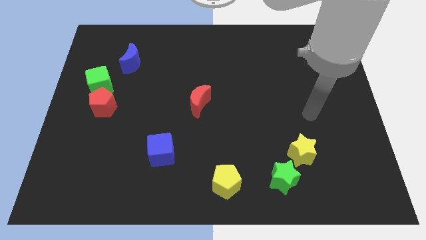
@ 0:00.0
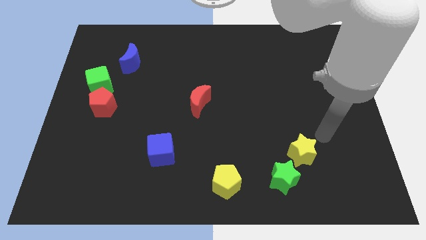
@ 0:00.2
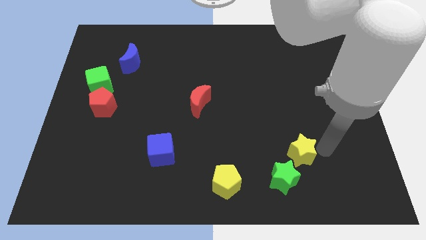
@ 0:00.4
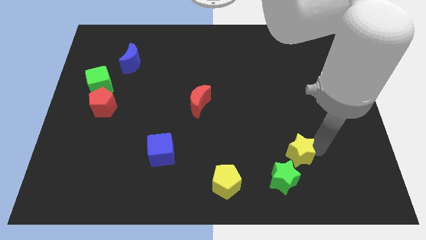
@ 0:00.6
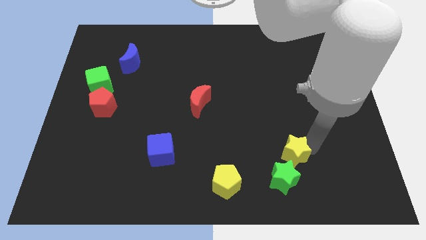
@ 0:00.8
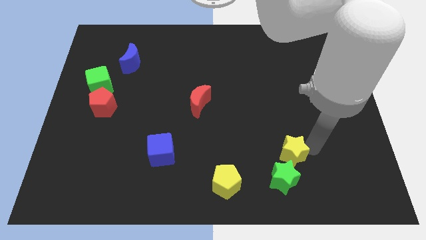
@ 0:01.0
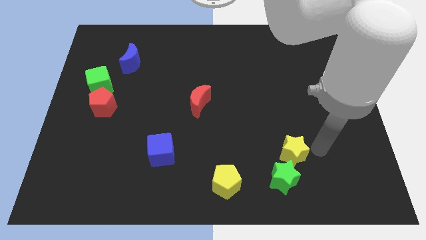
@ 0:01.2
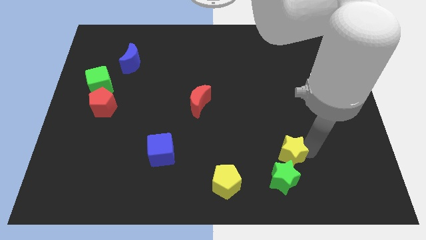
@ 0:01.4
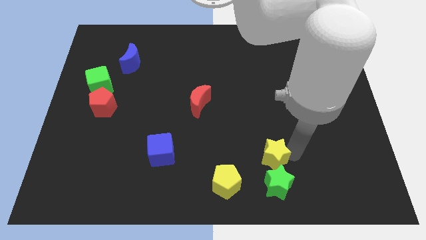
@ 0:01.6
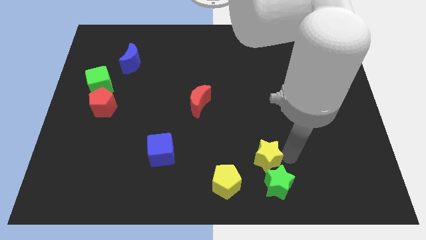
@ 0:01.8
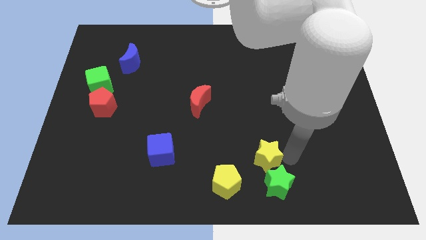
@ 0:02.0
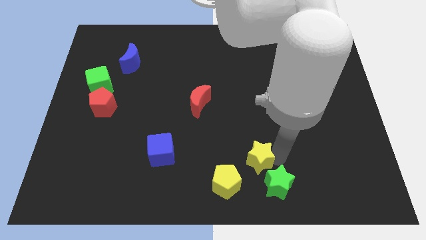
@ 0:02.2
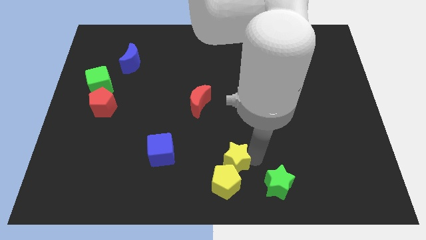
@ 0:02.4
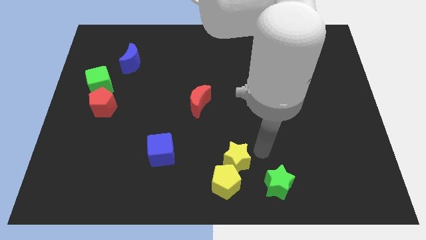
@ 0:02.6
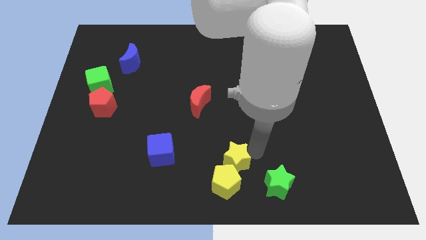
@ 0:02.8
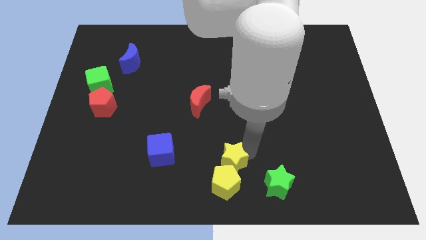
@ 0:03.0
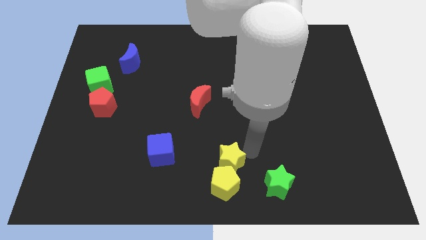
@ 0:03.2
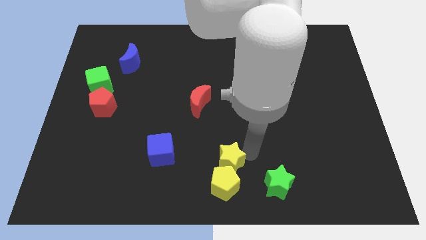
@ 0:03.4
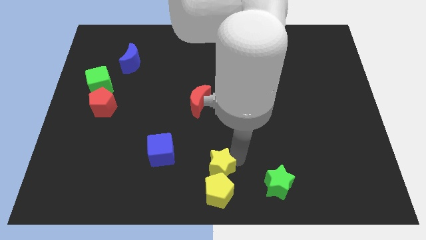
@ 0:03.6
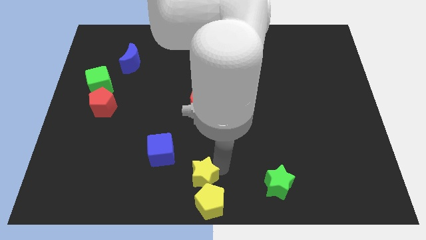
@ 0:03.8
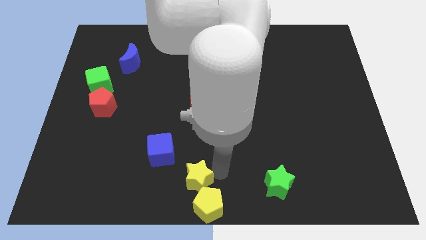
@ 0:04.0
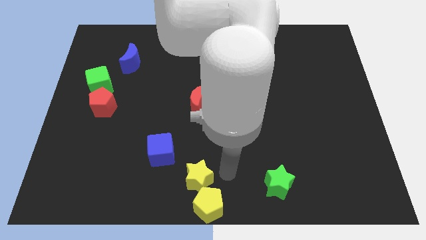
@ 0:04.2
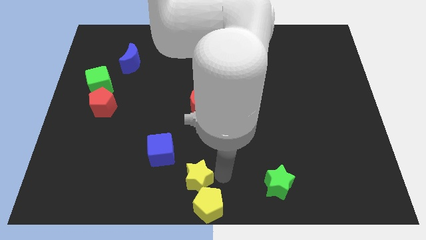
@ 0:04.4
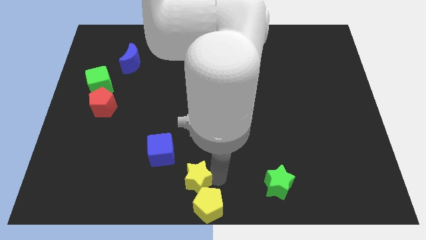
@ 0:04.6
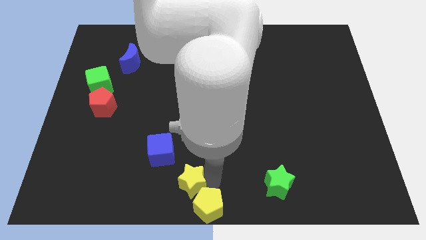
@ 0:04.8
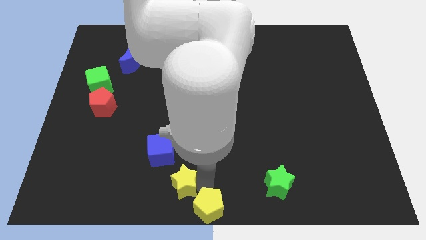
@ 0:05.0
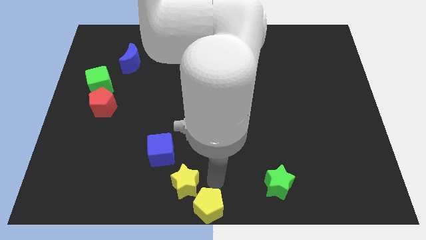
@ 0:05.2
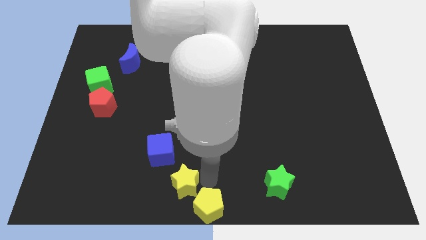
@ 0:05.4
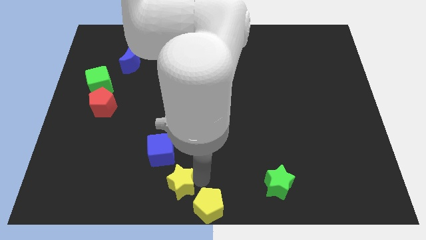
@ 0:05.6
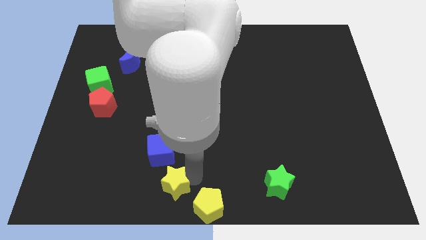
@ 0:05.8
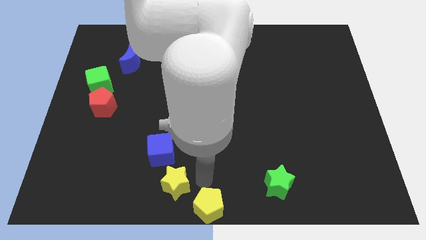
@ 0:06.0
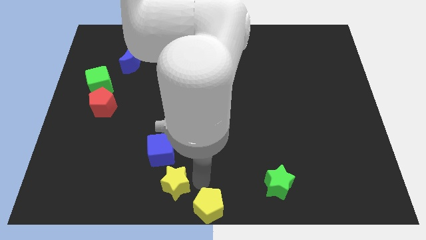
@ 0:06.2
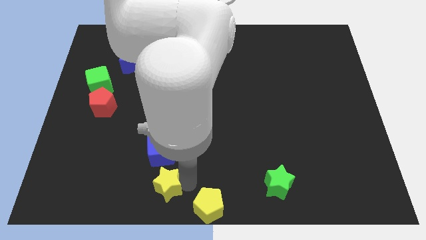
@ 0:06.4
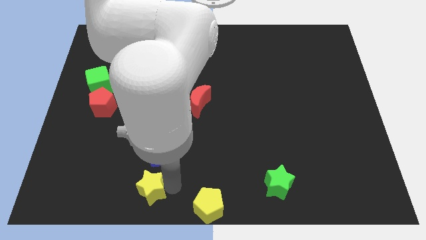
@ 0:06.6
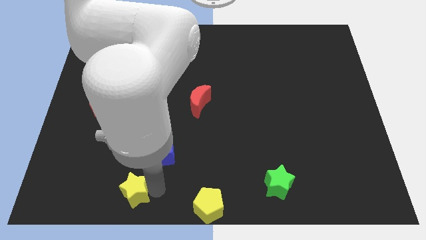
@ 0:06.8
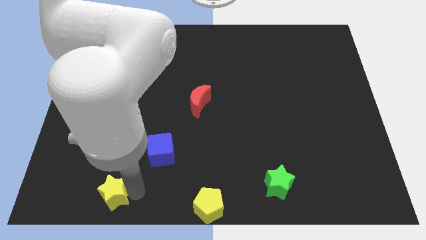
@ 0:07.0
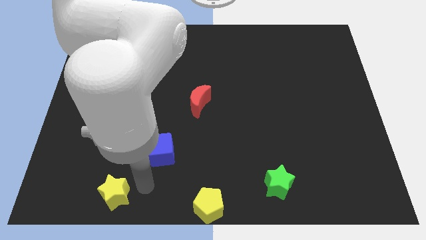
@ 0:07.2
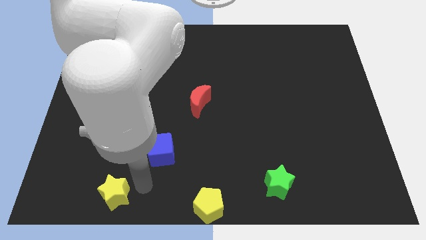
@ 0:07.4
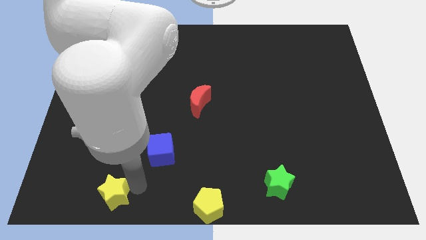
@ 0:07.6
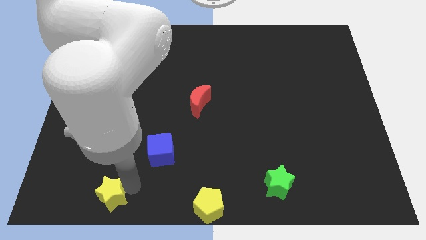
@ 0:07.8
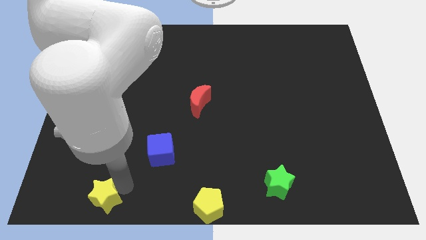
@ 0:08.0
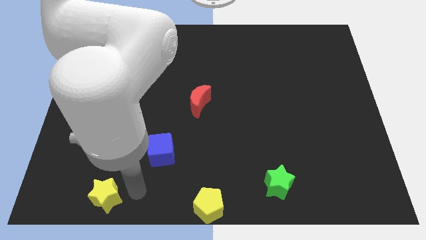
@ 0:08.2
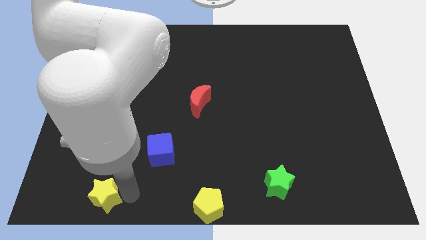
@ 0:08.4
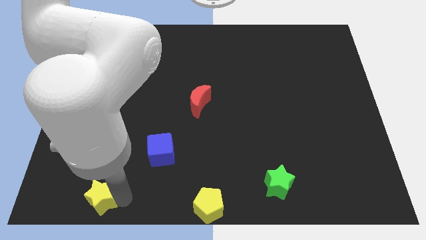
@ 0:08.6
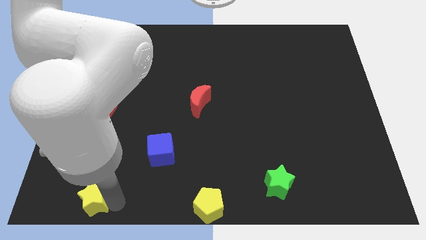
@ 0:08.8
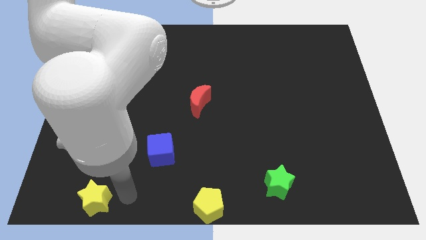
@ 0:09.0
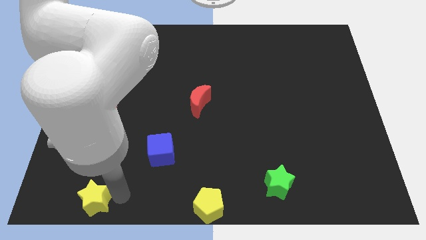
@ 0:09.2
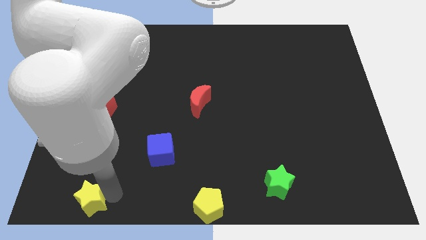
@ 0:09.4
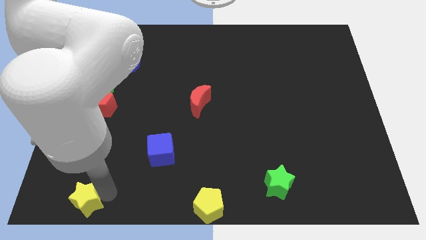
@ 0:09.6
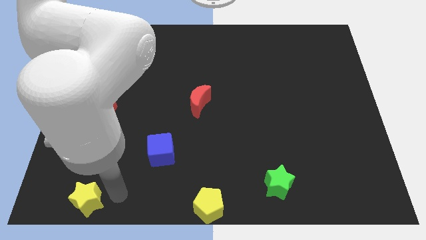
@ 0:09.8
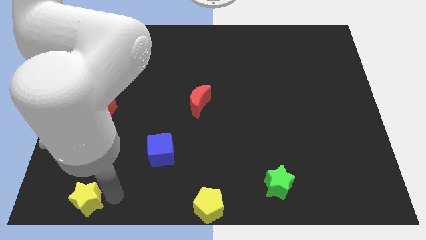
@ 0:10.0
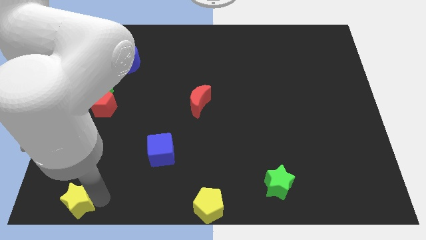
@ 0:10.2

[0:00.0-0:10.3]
slide the yellow star to the lower left corner

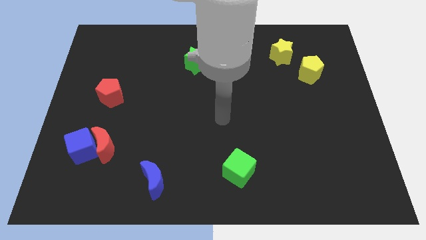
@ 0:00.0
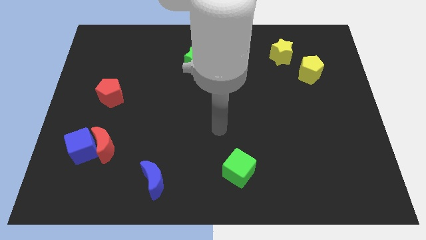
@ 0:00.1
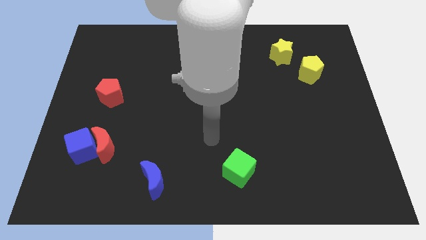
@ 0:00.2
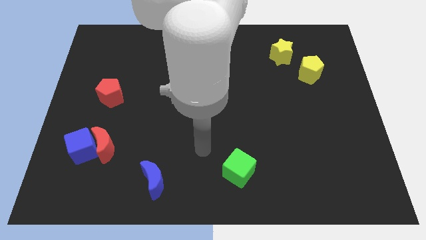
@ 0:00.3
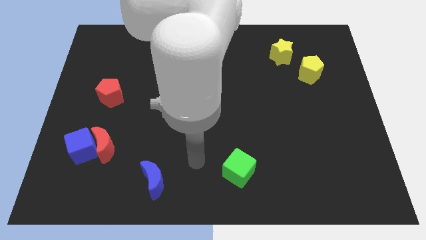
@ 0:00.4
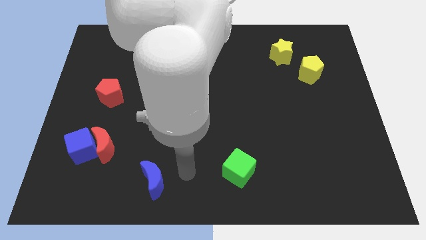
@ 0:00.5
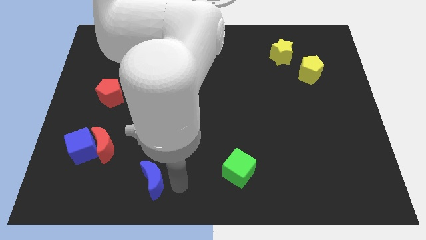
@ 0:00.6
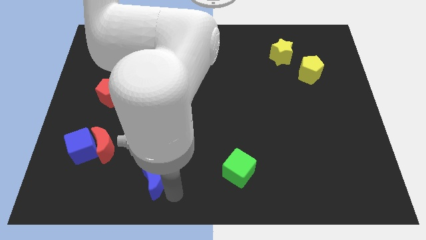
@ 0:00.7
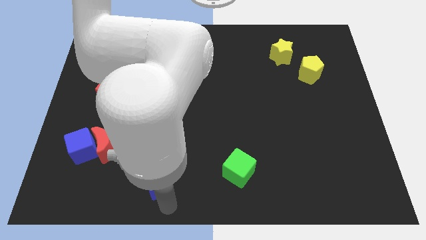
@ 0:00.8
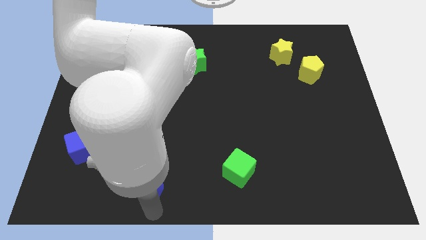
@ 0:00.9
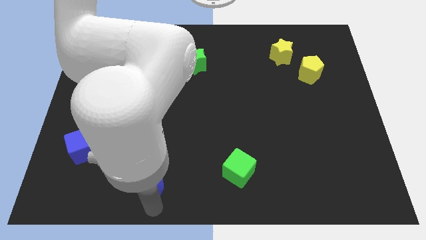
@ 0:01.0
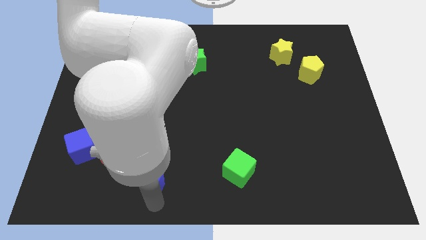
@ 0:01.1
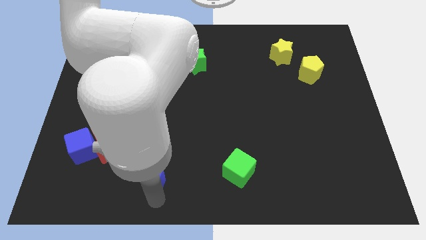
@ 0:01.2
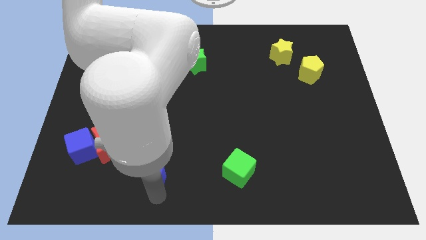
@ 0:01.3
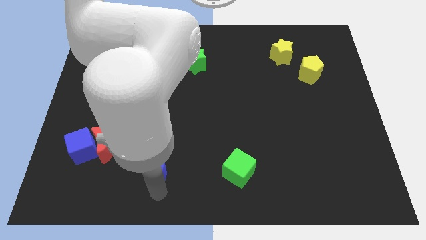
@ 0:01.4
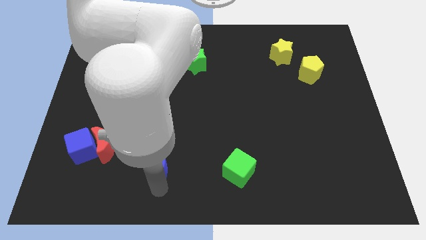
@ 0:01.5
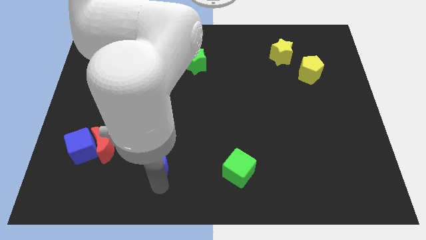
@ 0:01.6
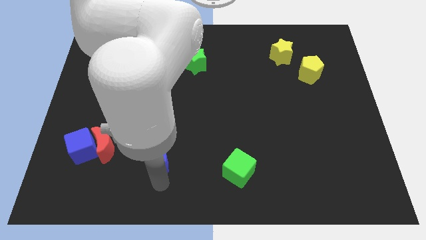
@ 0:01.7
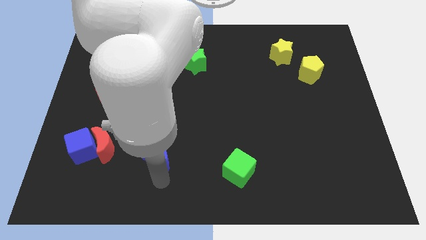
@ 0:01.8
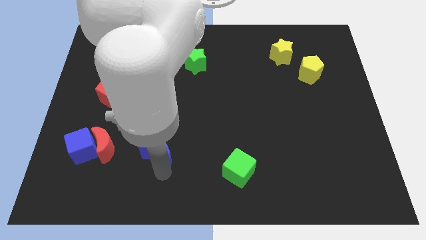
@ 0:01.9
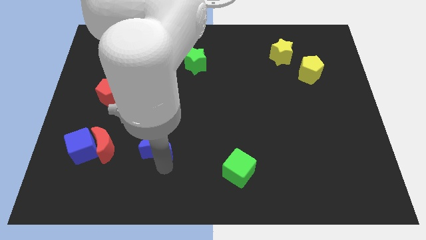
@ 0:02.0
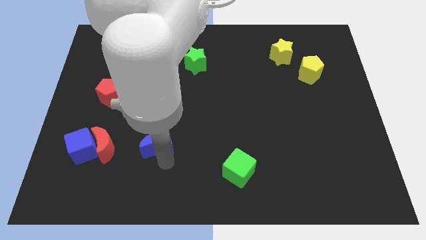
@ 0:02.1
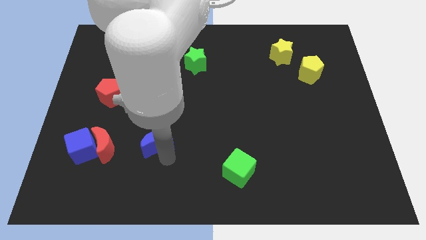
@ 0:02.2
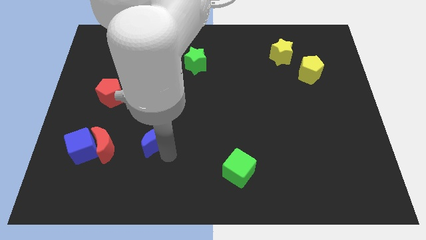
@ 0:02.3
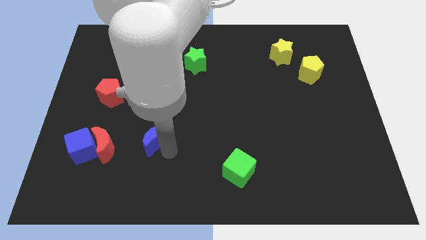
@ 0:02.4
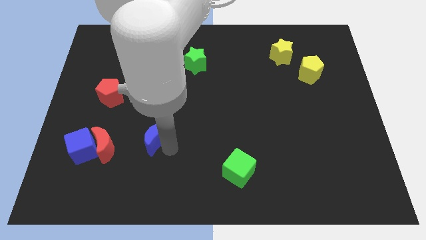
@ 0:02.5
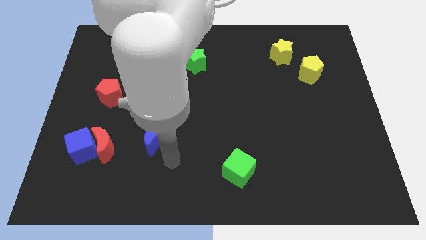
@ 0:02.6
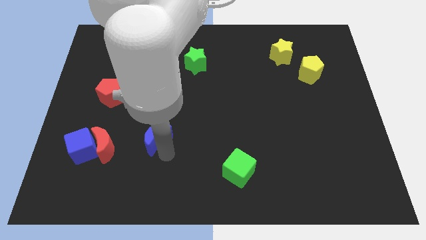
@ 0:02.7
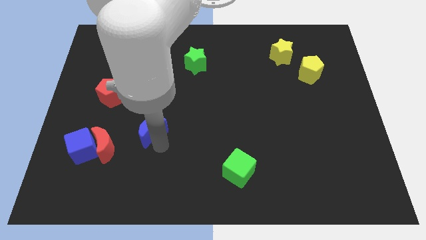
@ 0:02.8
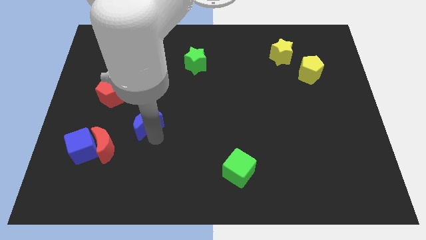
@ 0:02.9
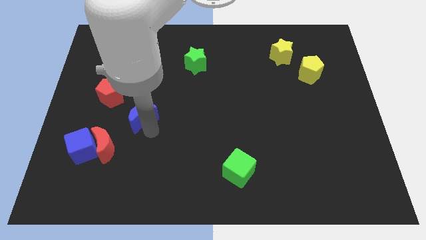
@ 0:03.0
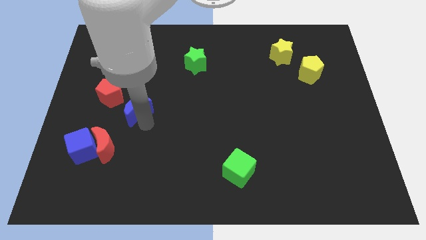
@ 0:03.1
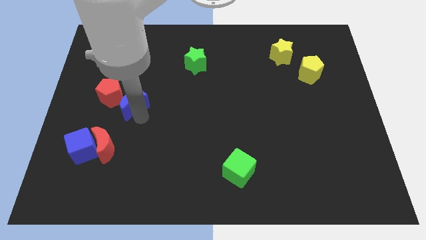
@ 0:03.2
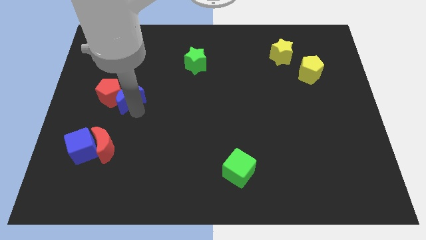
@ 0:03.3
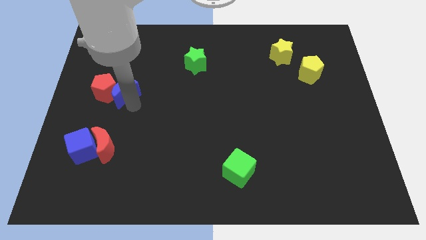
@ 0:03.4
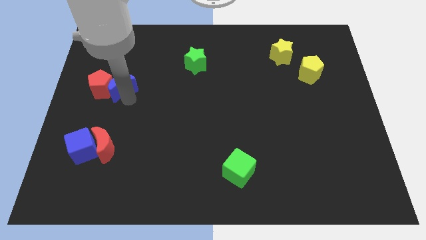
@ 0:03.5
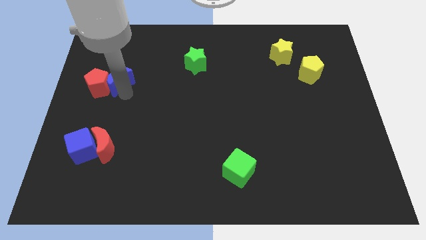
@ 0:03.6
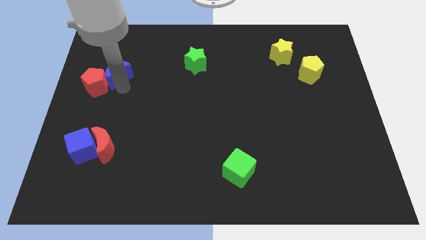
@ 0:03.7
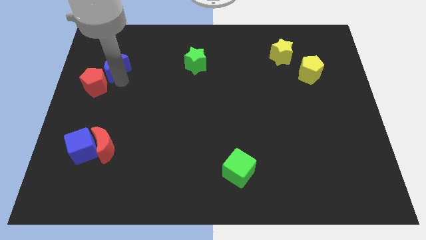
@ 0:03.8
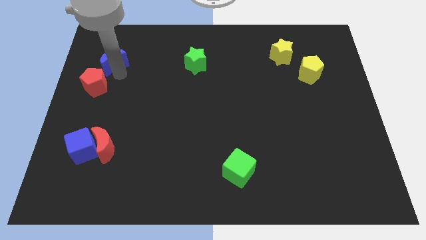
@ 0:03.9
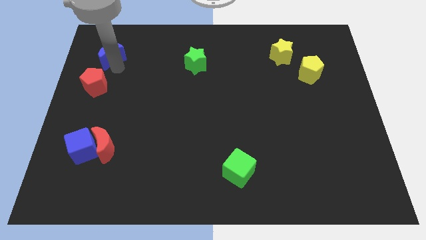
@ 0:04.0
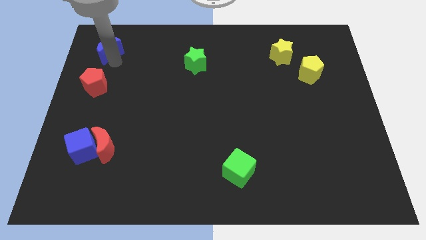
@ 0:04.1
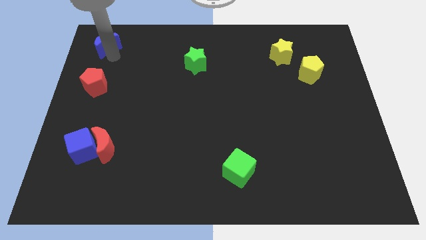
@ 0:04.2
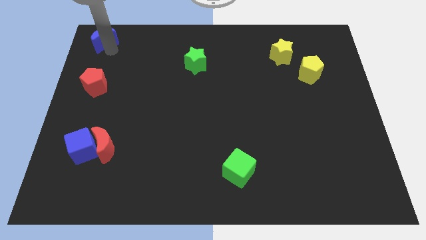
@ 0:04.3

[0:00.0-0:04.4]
slide the blue moon to the top left corner
